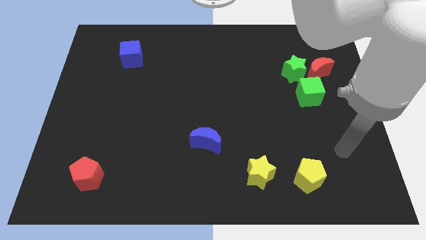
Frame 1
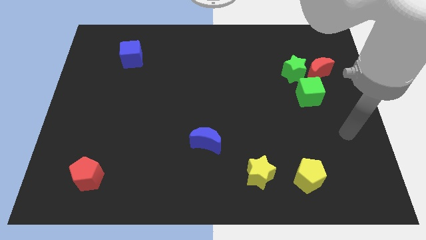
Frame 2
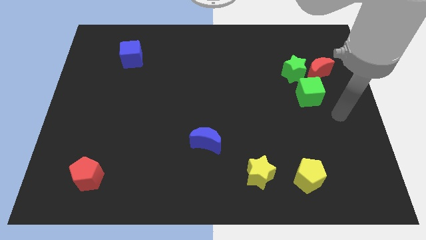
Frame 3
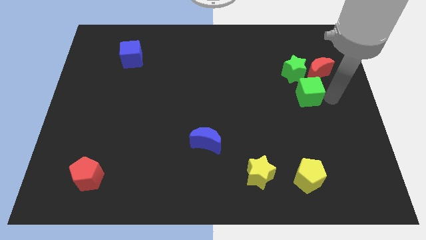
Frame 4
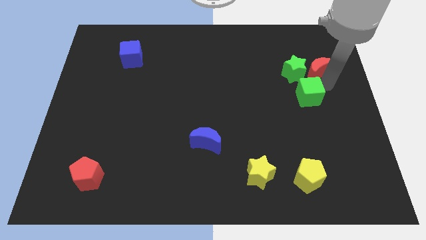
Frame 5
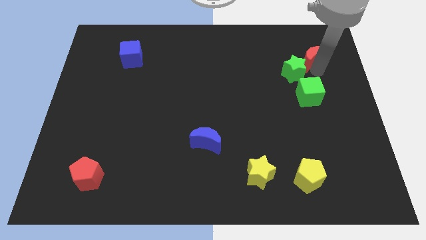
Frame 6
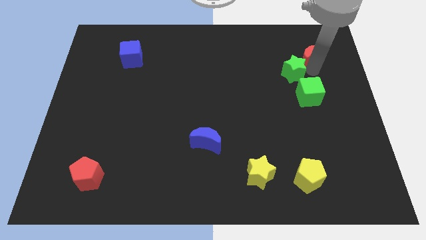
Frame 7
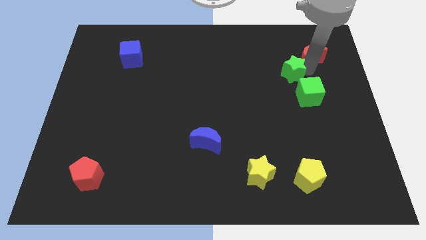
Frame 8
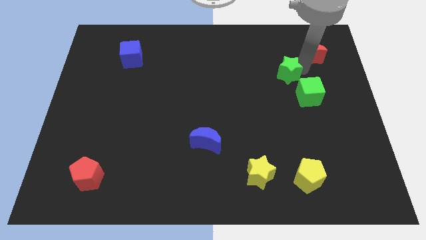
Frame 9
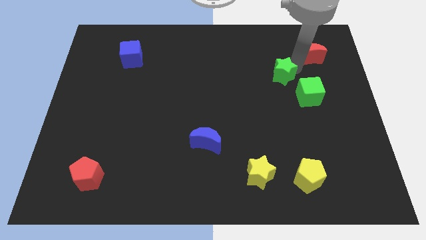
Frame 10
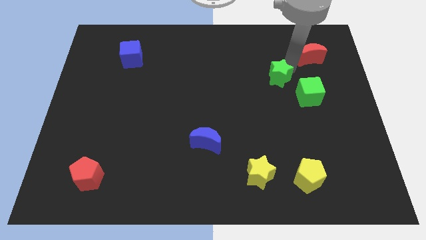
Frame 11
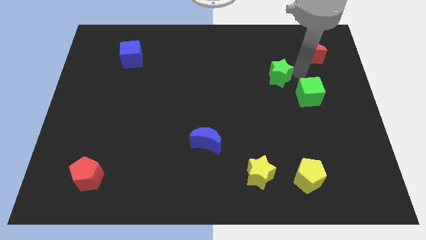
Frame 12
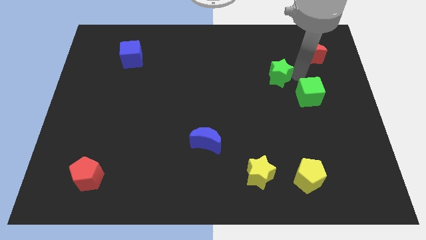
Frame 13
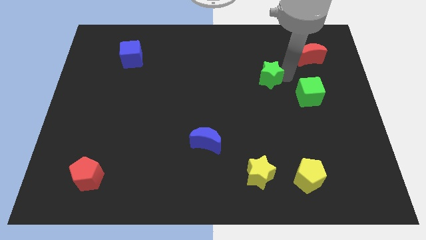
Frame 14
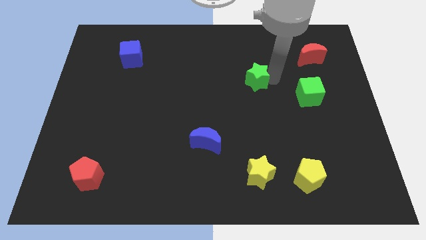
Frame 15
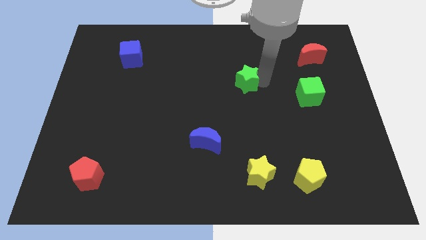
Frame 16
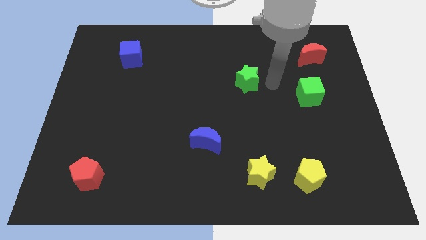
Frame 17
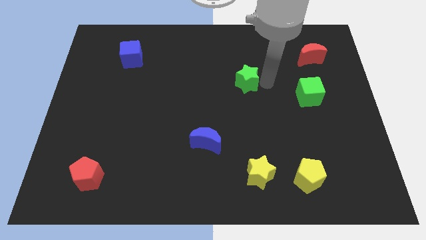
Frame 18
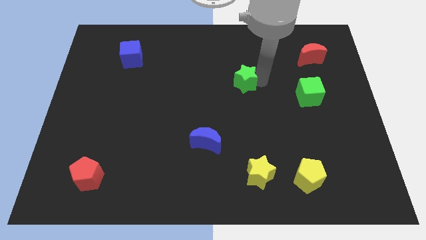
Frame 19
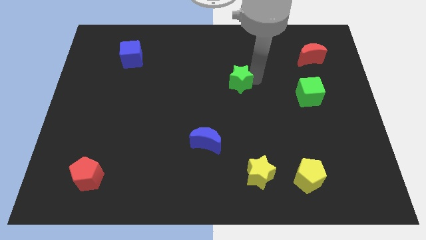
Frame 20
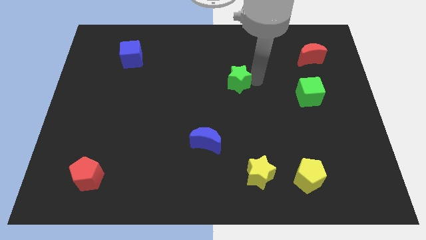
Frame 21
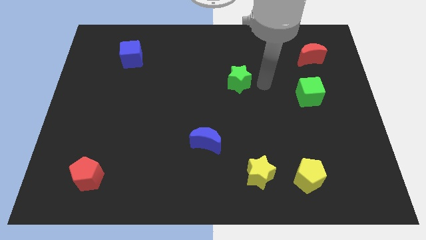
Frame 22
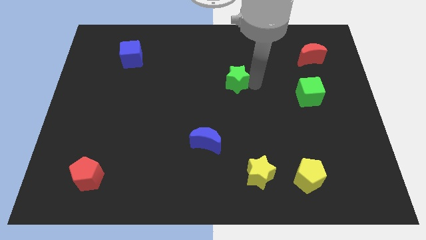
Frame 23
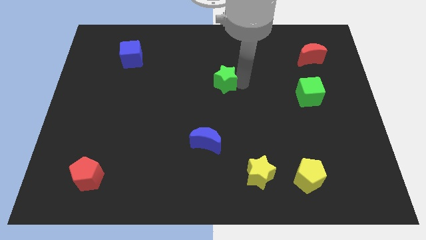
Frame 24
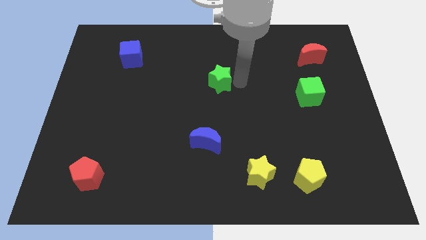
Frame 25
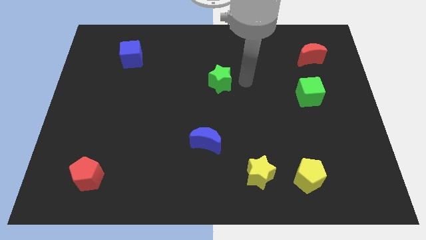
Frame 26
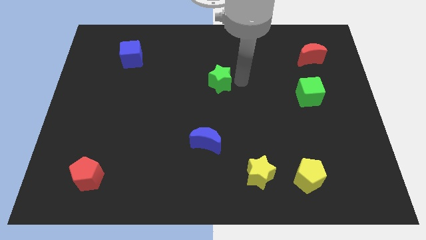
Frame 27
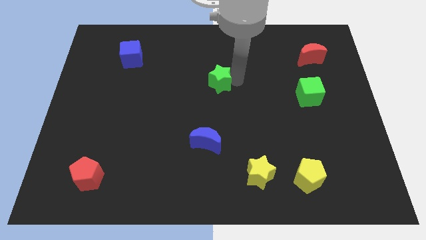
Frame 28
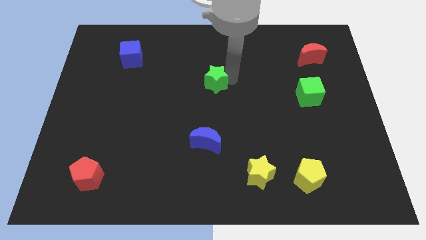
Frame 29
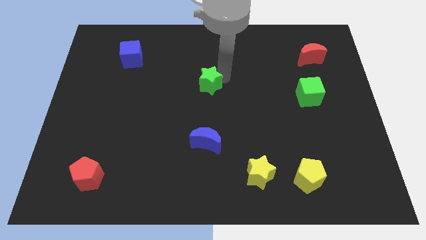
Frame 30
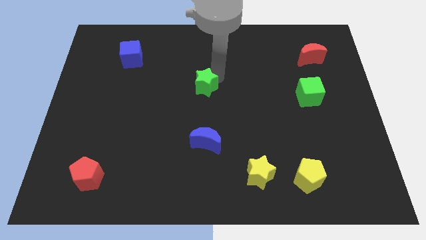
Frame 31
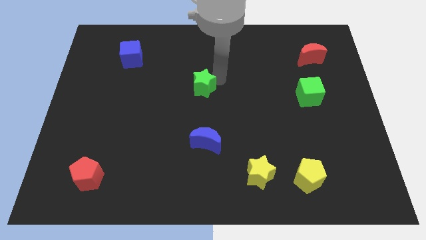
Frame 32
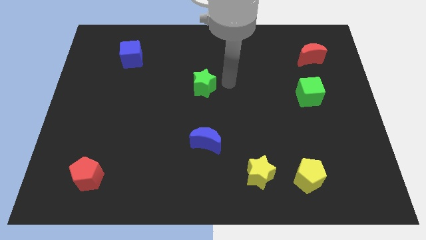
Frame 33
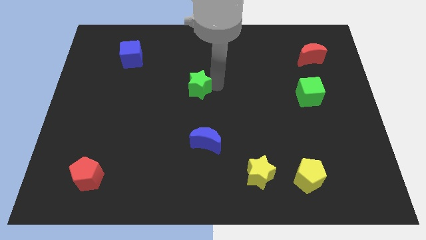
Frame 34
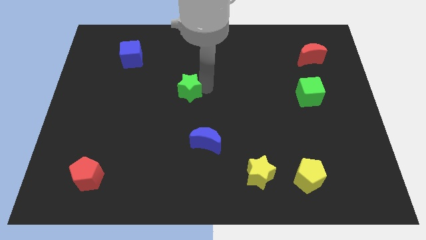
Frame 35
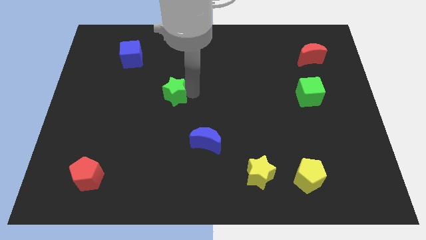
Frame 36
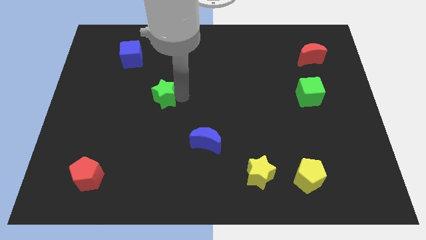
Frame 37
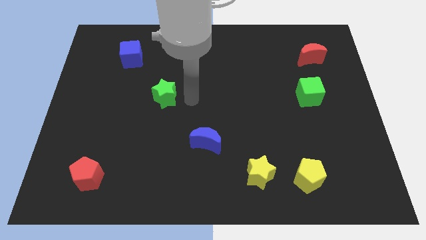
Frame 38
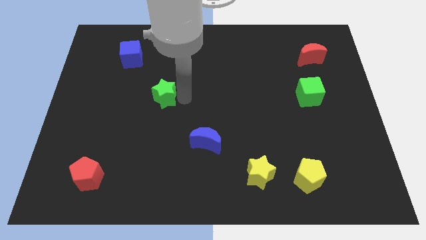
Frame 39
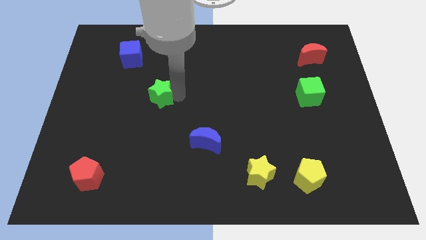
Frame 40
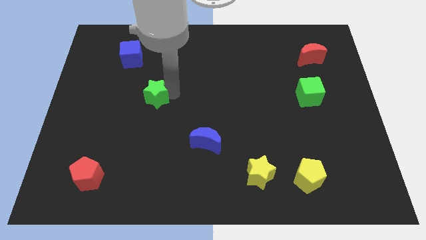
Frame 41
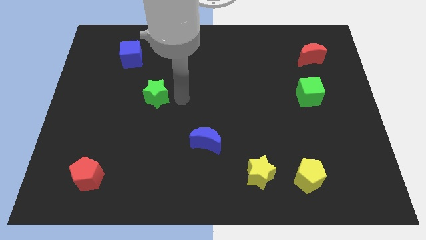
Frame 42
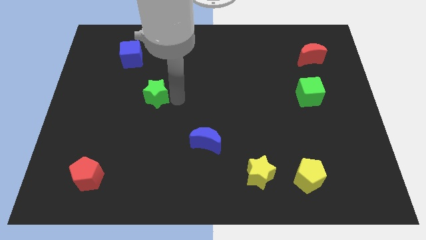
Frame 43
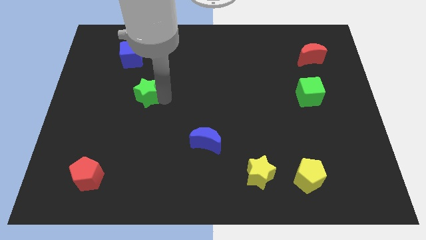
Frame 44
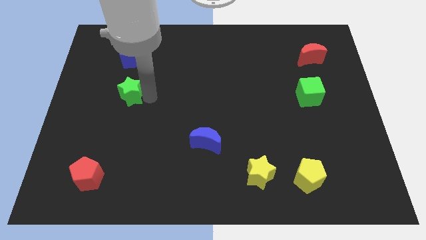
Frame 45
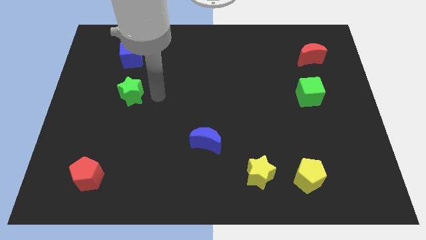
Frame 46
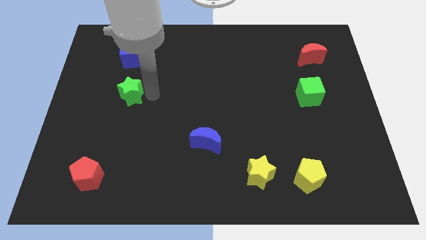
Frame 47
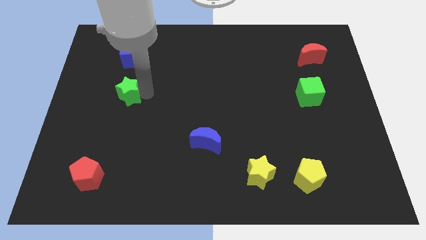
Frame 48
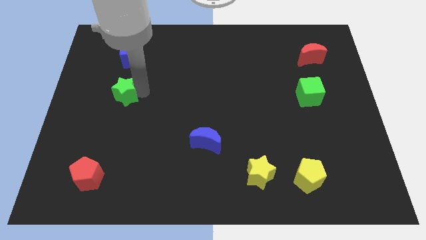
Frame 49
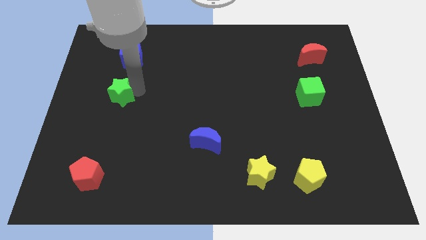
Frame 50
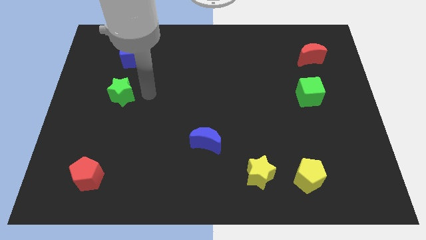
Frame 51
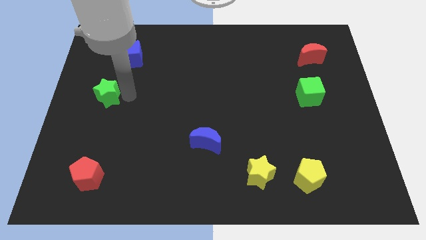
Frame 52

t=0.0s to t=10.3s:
put the green star to the center left

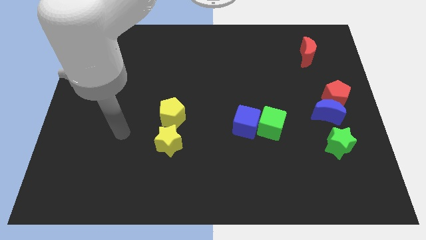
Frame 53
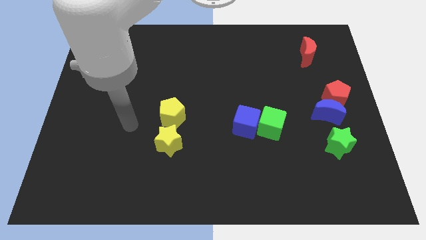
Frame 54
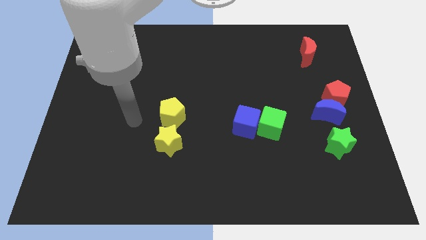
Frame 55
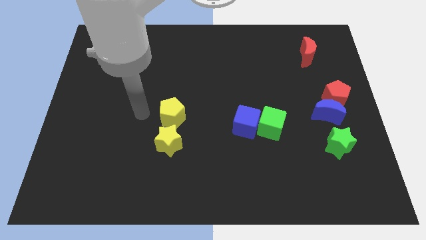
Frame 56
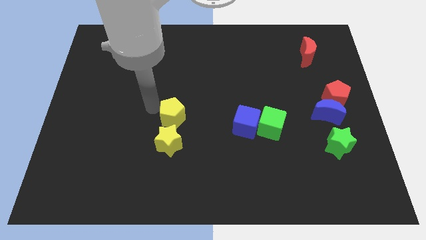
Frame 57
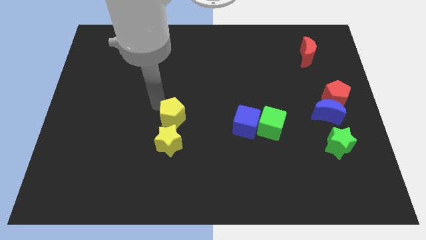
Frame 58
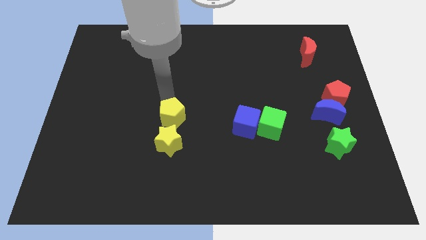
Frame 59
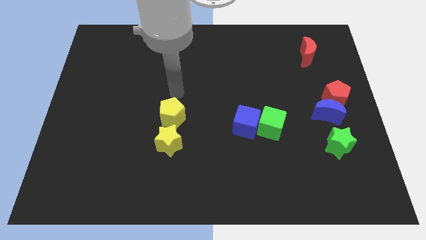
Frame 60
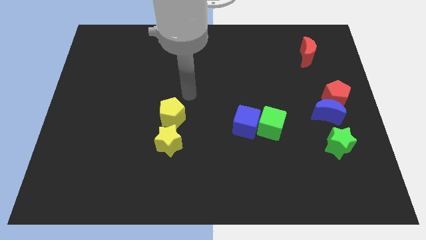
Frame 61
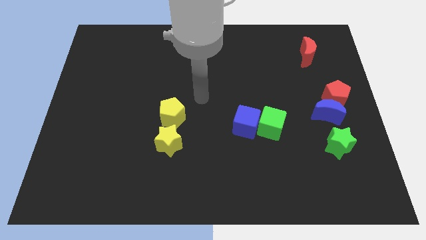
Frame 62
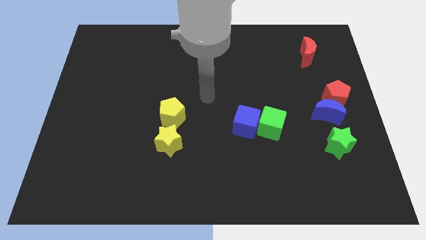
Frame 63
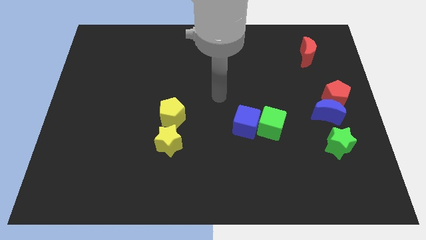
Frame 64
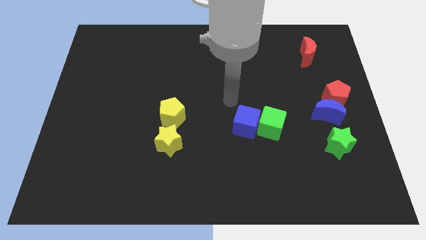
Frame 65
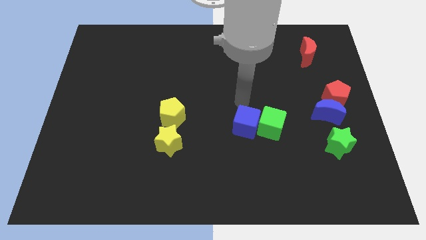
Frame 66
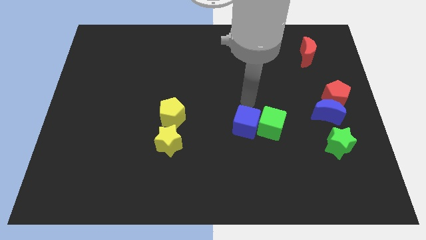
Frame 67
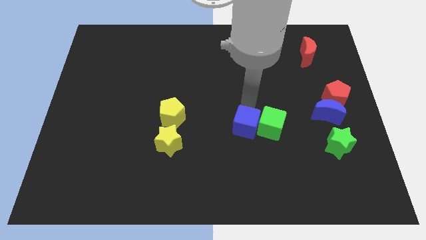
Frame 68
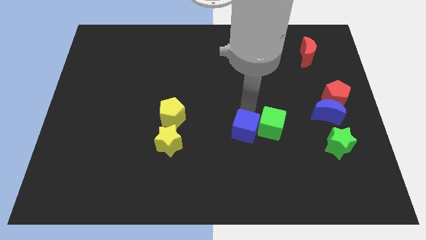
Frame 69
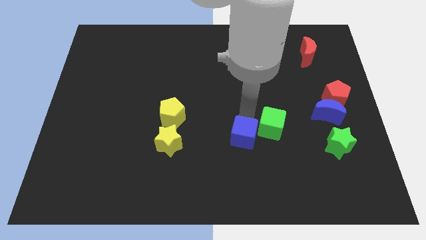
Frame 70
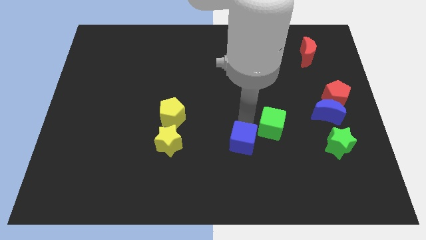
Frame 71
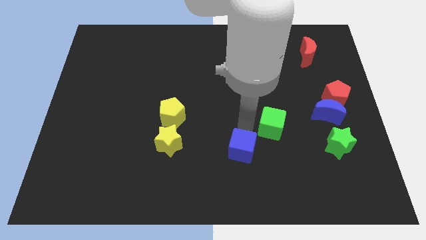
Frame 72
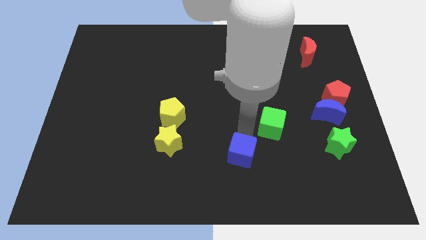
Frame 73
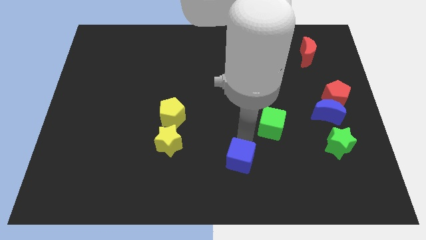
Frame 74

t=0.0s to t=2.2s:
put the blue cube to the bottom
